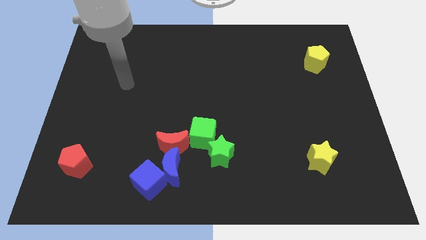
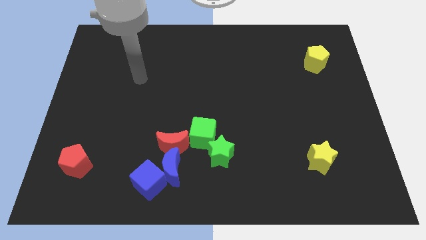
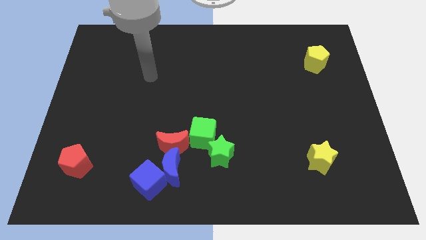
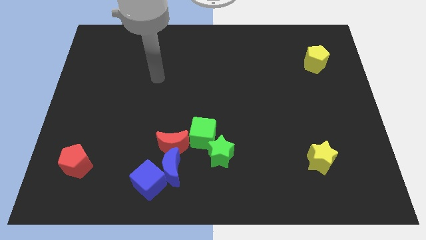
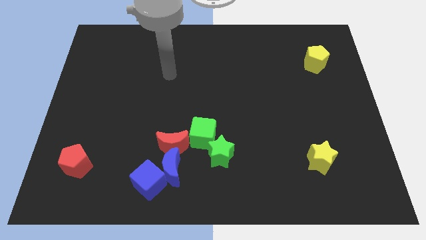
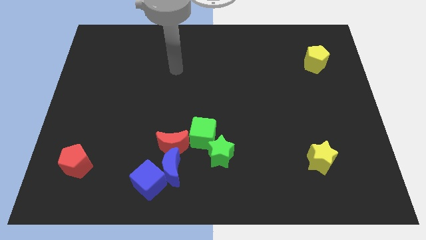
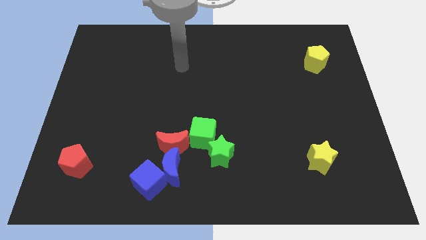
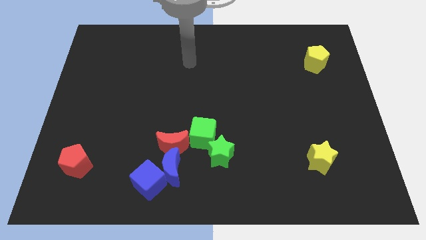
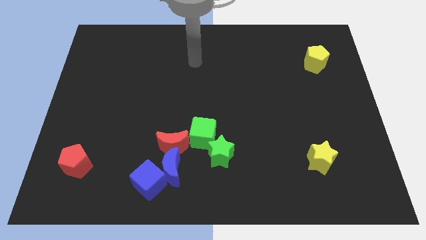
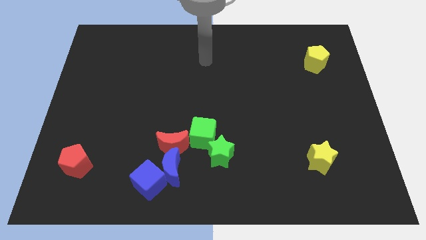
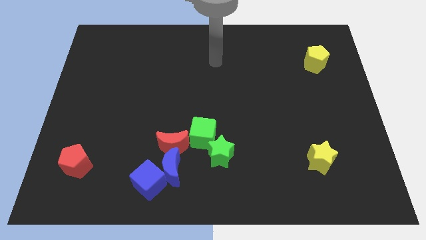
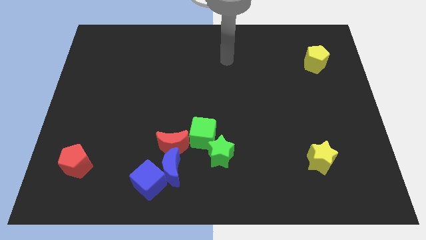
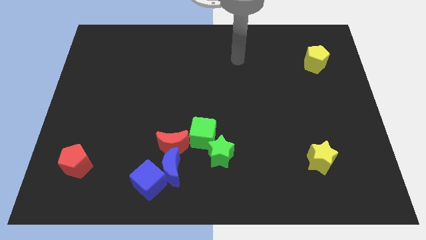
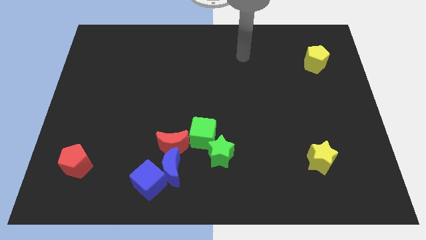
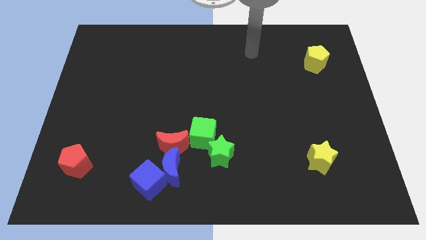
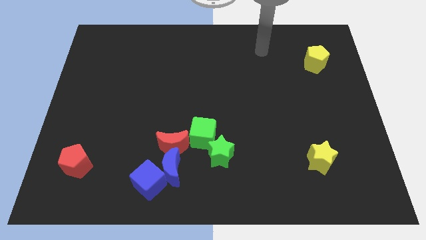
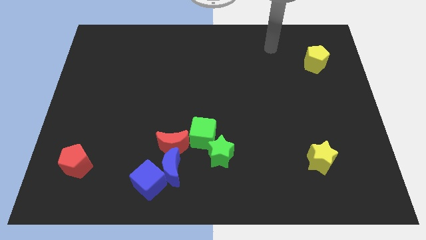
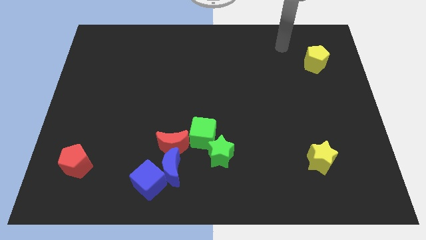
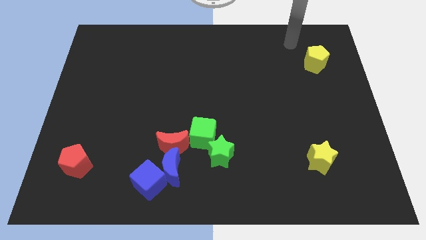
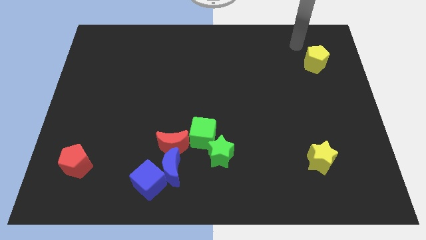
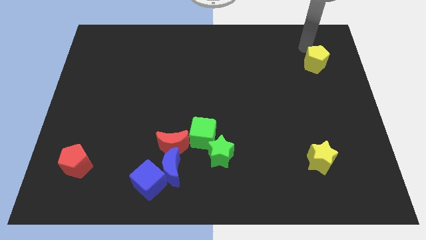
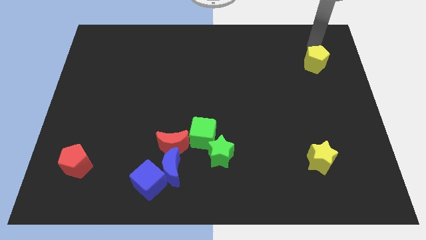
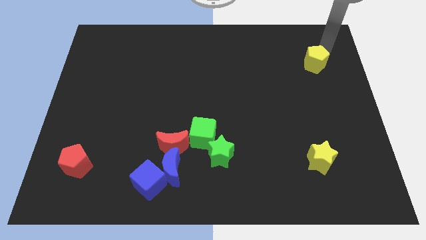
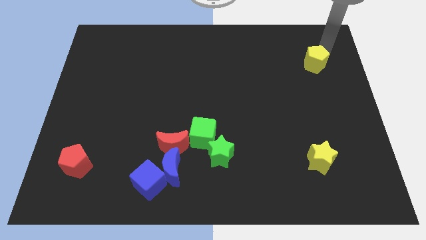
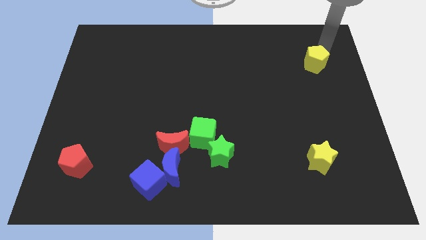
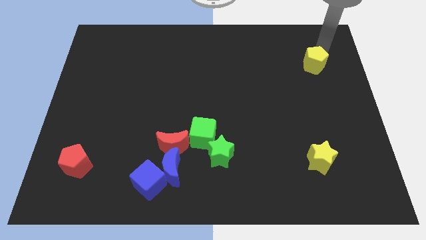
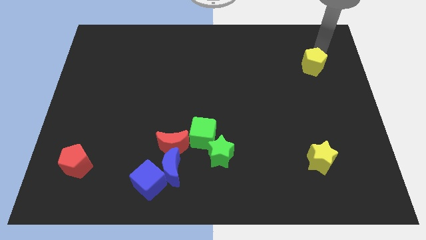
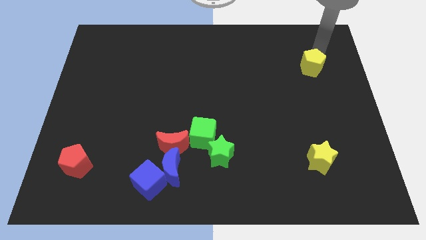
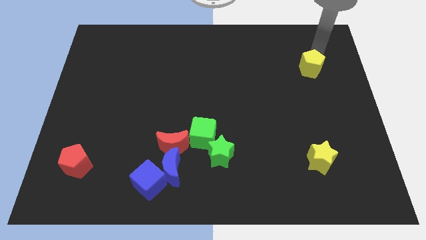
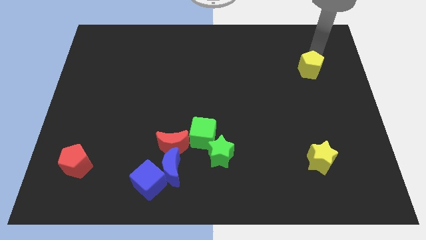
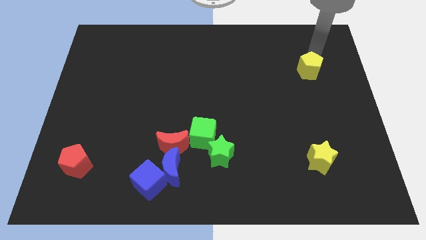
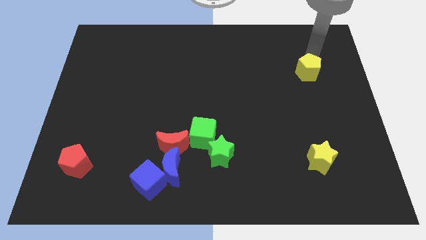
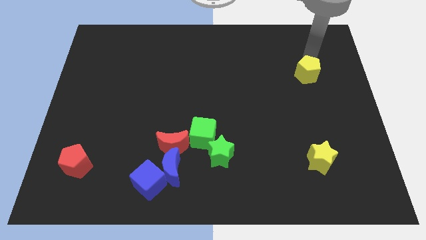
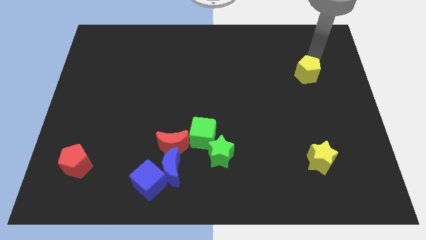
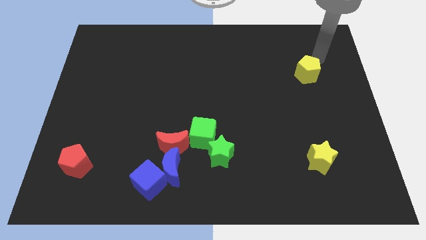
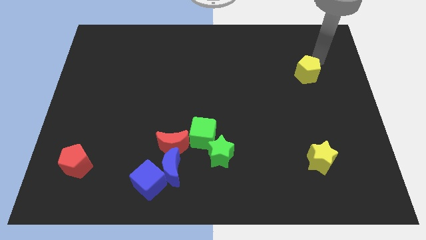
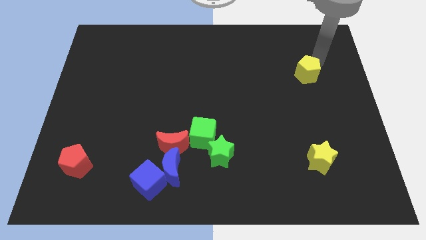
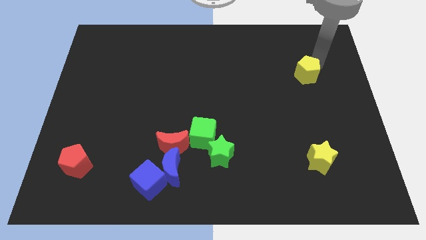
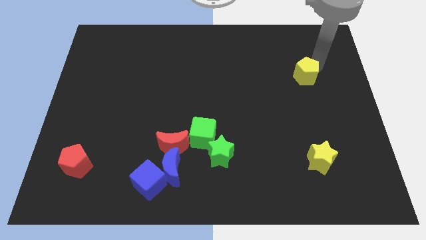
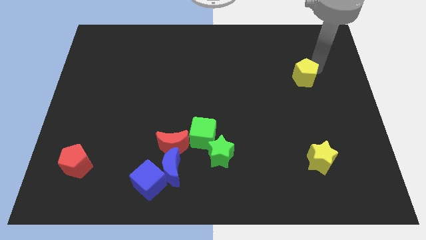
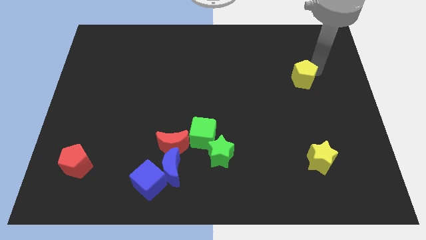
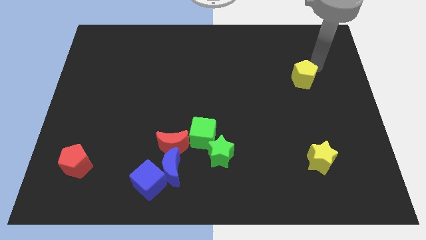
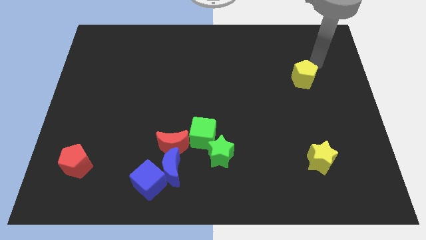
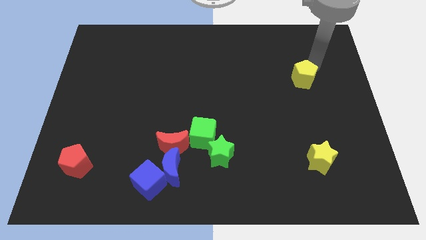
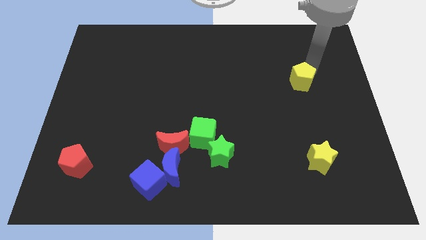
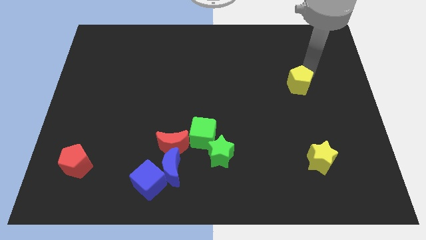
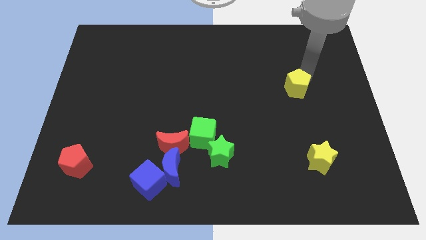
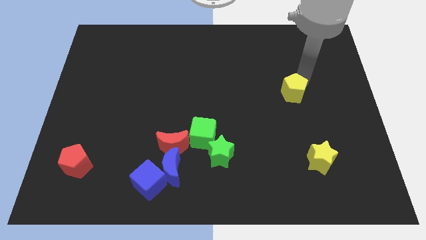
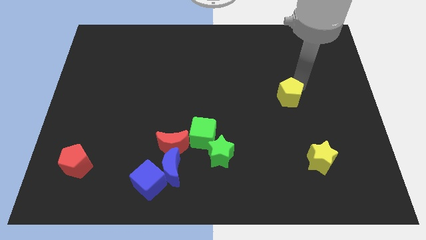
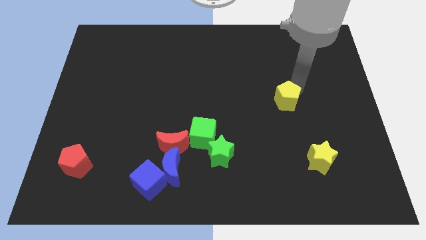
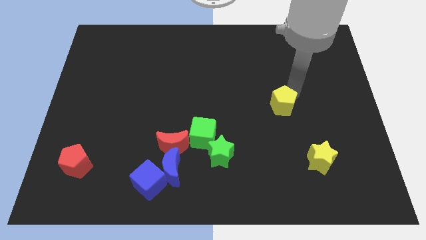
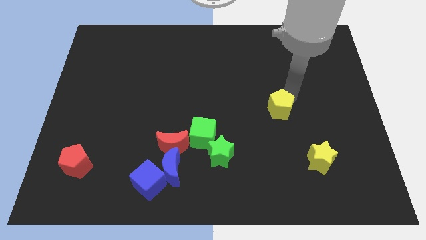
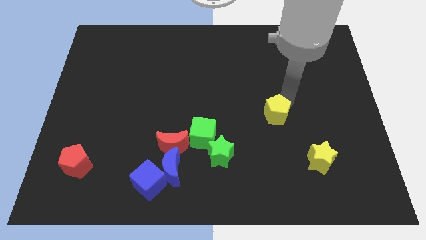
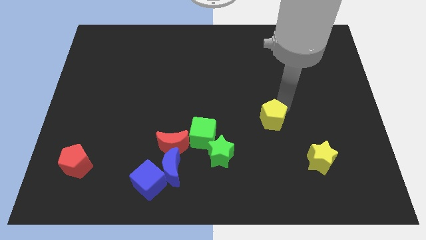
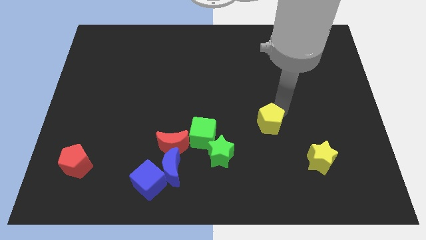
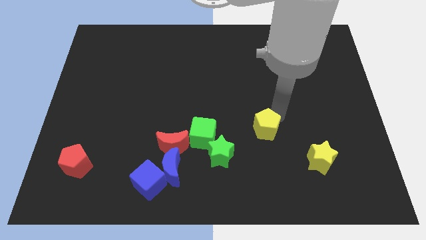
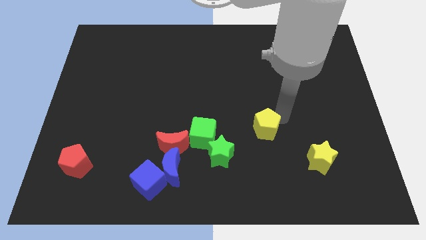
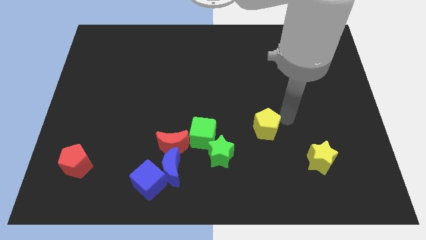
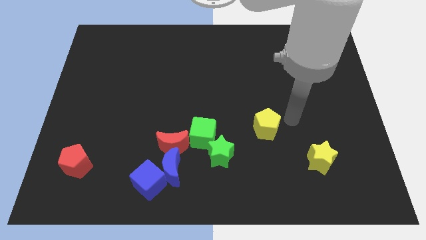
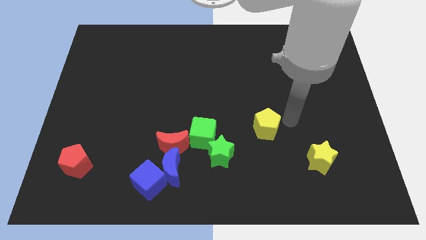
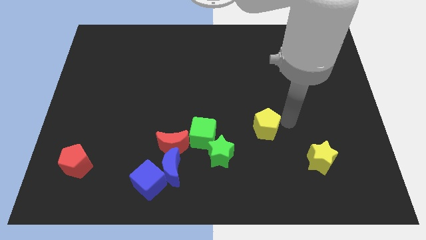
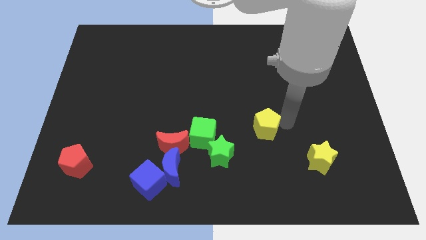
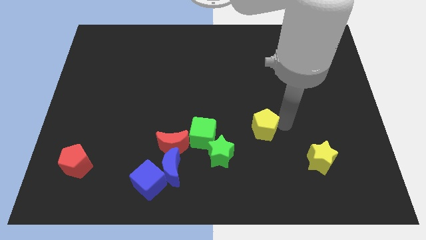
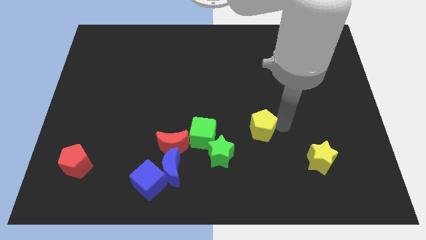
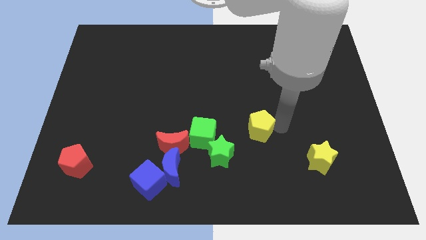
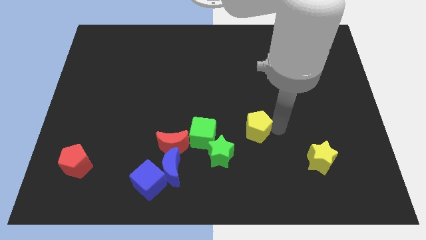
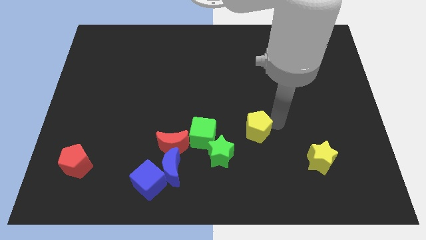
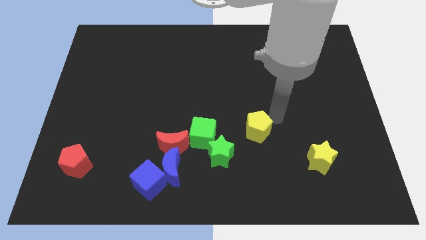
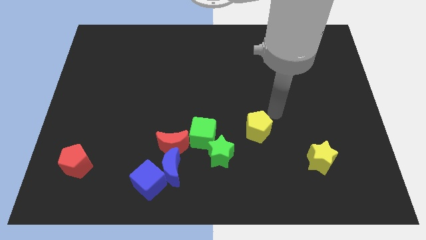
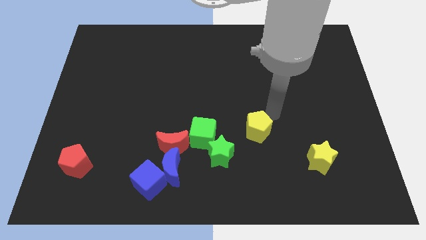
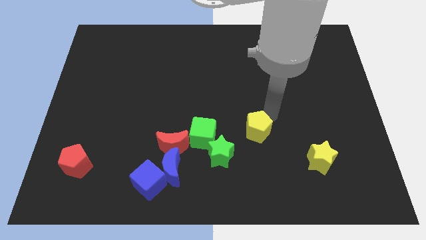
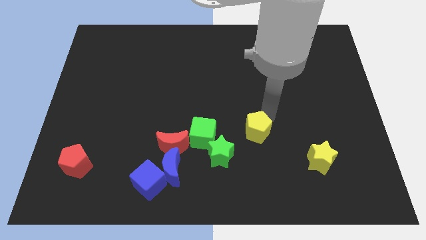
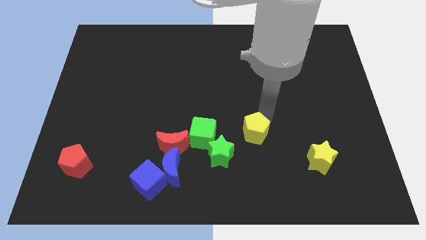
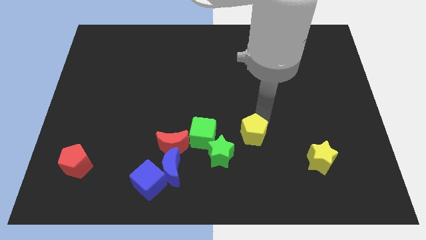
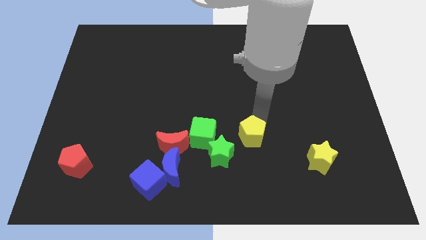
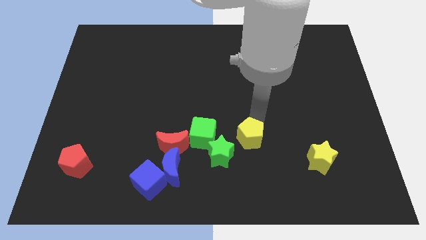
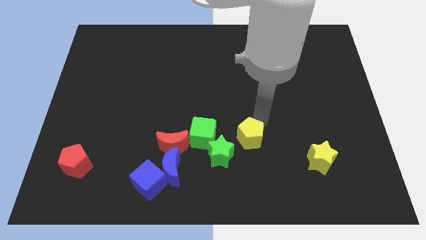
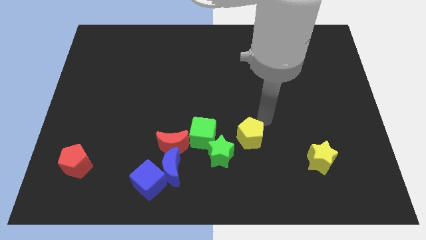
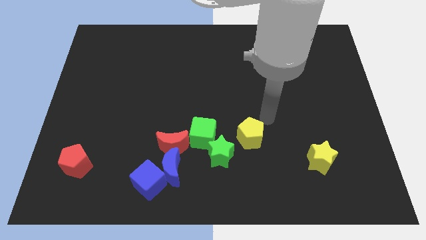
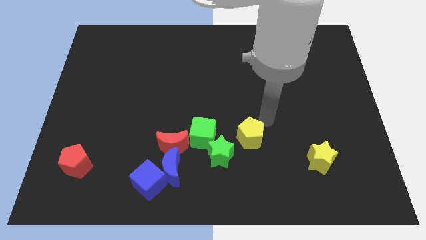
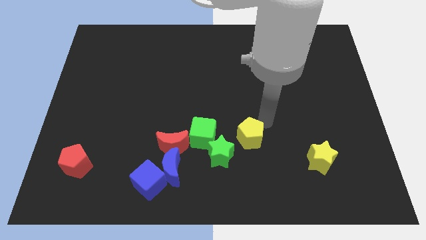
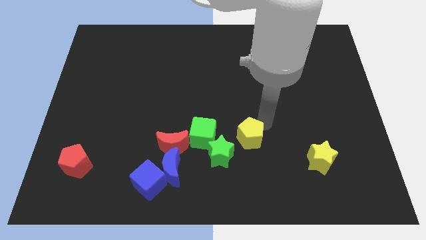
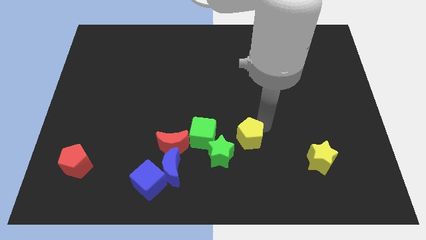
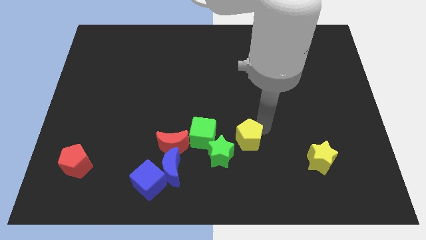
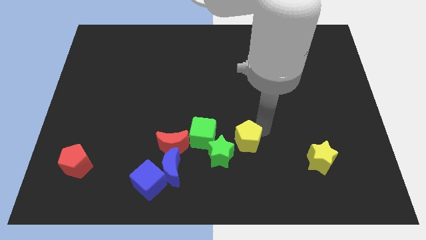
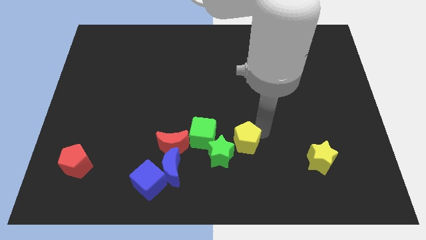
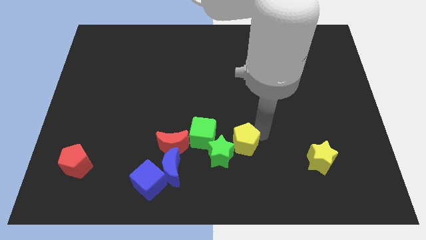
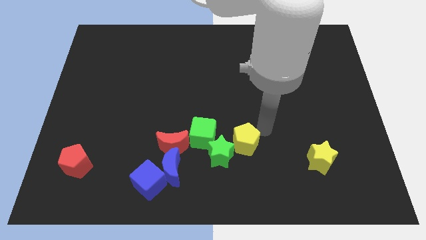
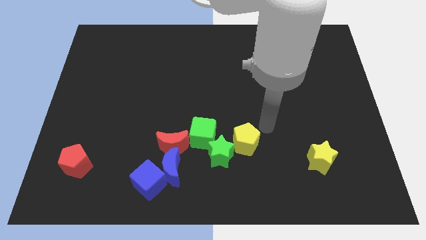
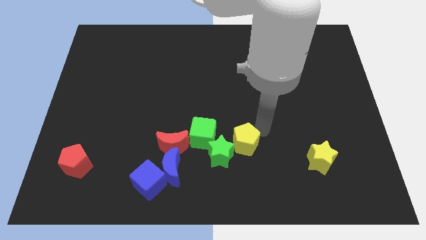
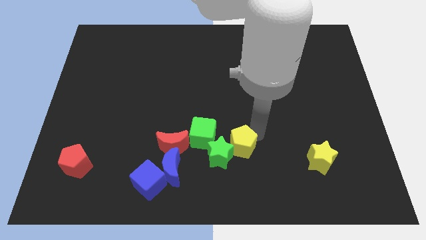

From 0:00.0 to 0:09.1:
move the yellow pentagon to the bottom right of the green cube
